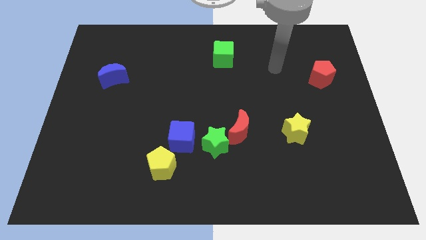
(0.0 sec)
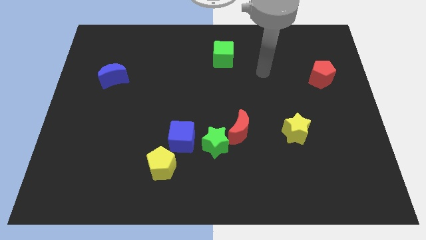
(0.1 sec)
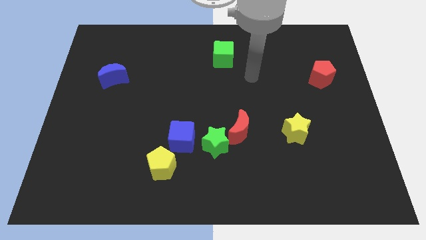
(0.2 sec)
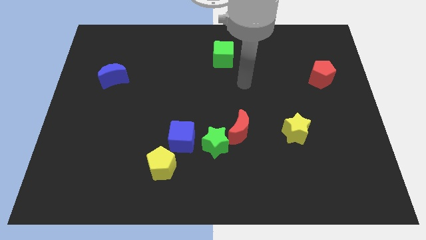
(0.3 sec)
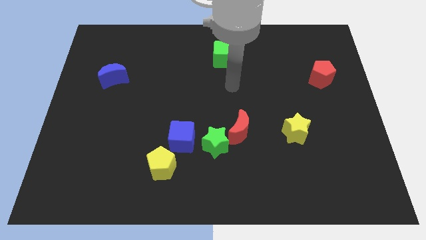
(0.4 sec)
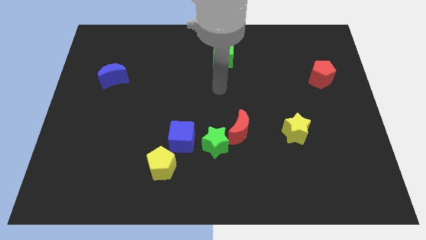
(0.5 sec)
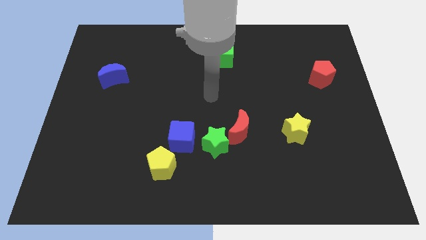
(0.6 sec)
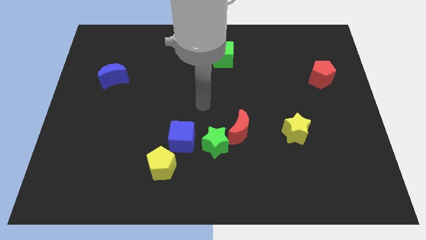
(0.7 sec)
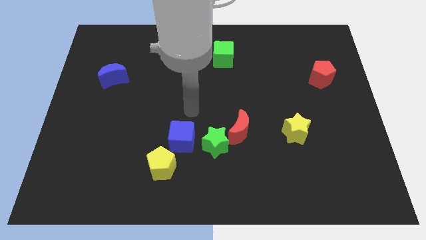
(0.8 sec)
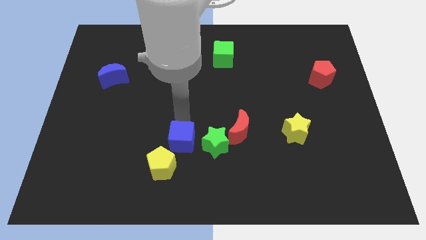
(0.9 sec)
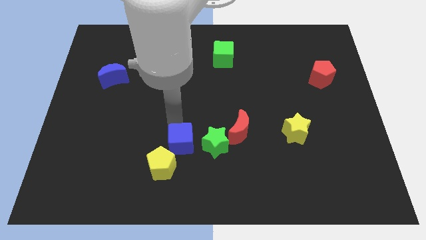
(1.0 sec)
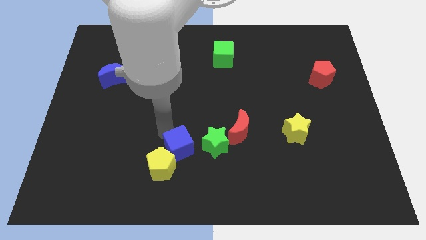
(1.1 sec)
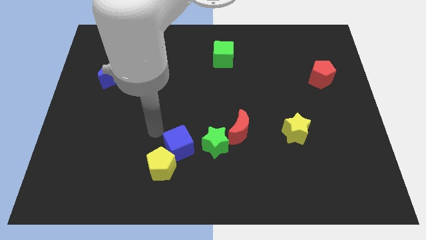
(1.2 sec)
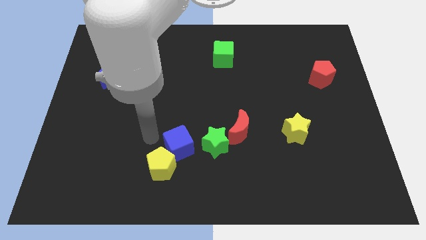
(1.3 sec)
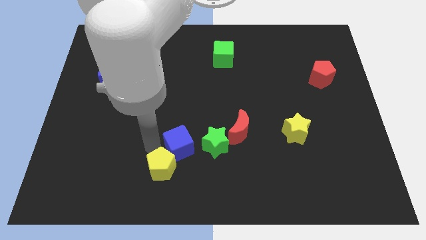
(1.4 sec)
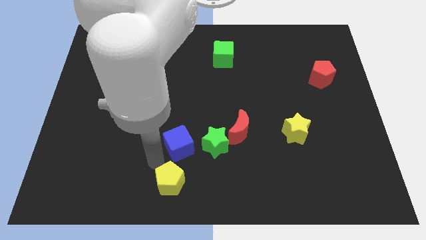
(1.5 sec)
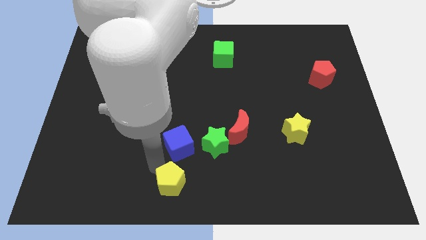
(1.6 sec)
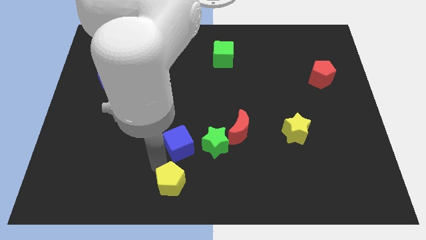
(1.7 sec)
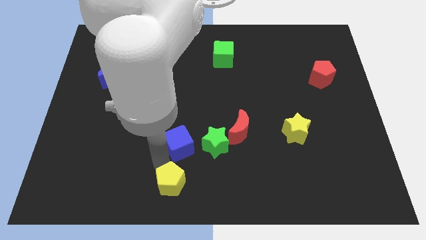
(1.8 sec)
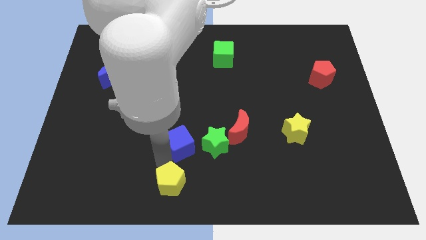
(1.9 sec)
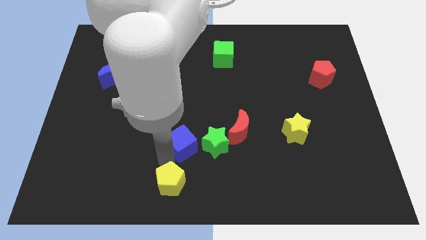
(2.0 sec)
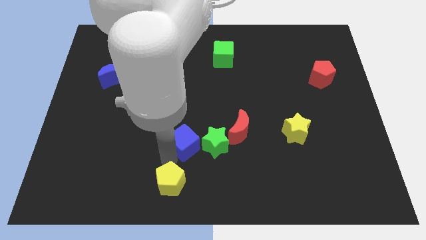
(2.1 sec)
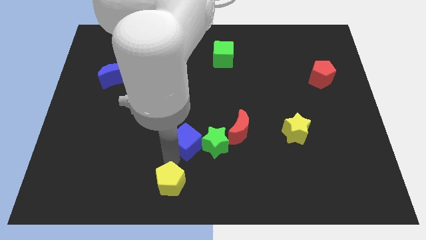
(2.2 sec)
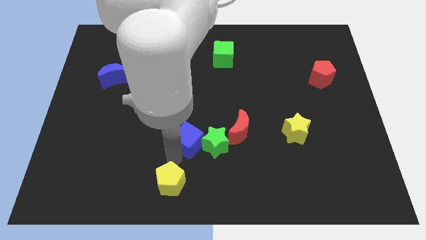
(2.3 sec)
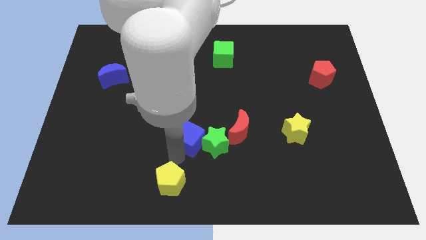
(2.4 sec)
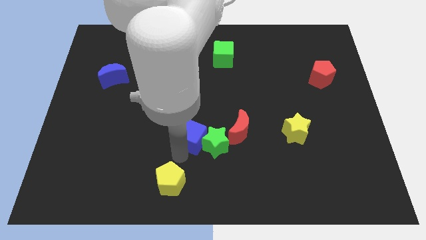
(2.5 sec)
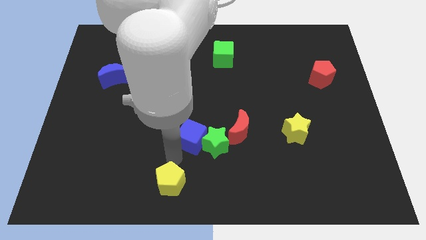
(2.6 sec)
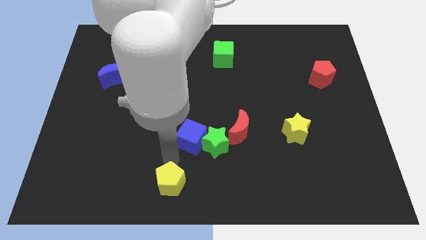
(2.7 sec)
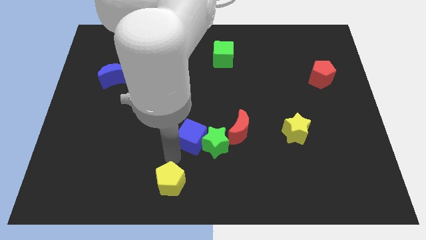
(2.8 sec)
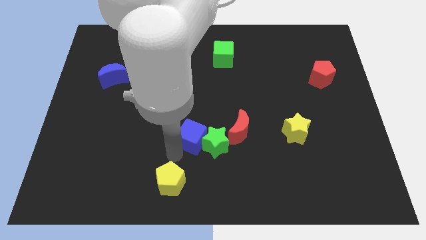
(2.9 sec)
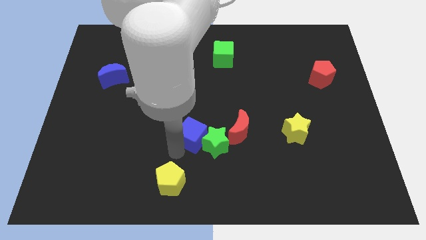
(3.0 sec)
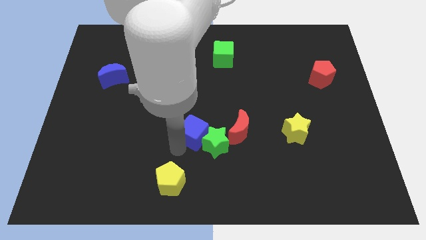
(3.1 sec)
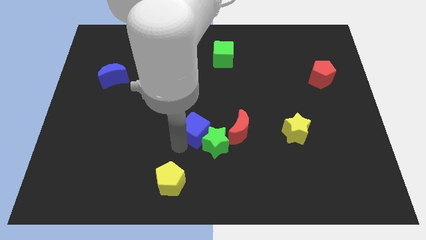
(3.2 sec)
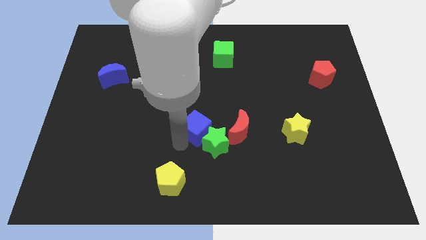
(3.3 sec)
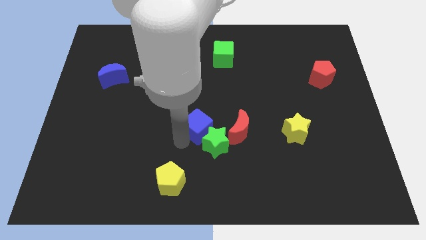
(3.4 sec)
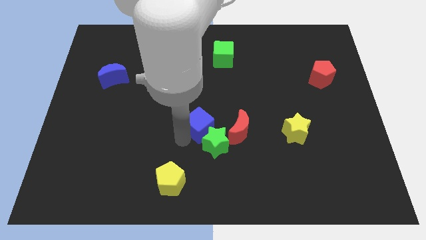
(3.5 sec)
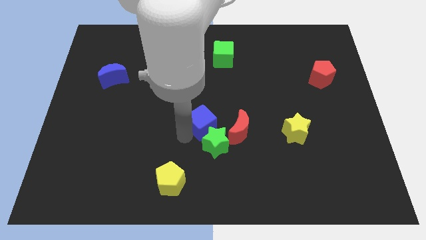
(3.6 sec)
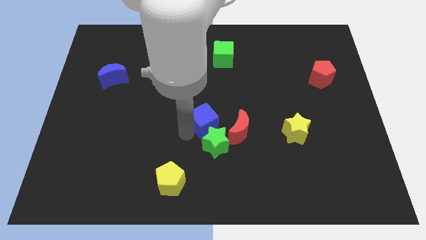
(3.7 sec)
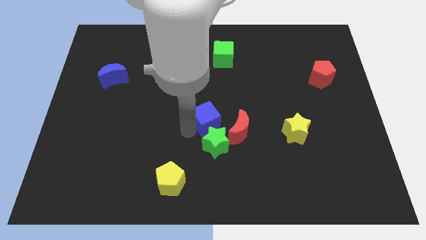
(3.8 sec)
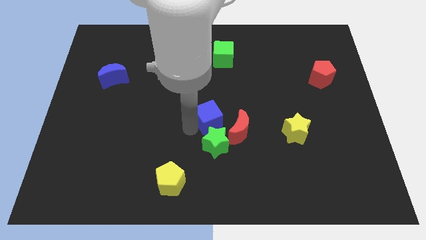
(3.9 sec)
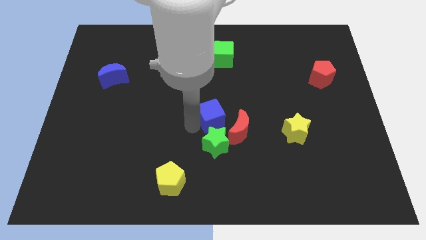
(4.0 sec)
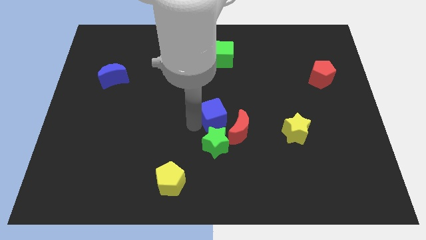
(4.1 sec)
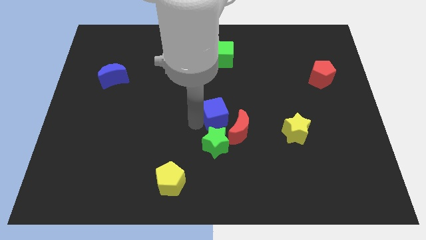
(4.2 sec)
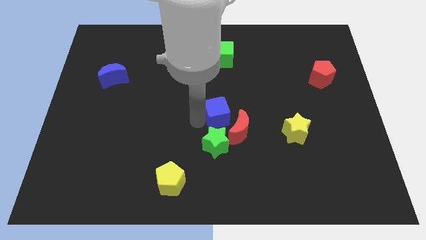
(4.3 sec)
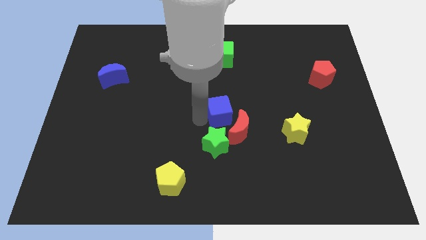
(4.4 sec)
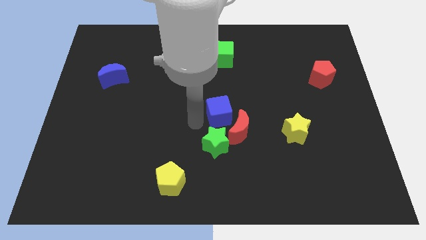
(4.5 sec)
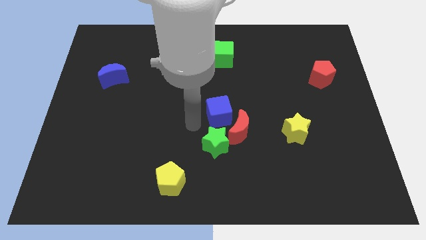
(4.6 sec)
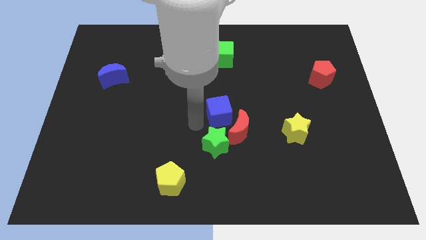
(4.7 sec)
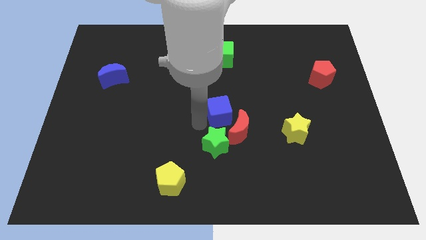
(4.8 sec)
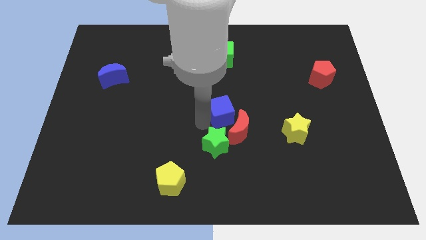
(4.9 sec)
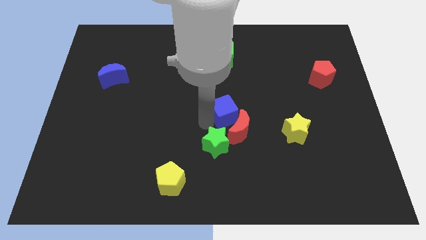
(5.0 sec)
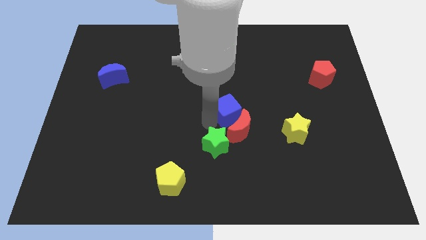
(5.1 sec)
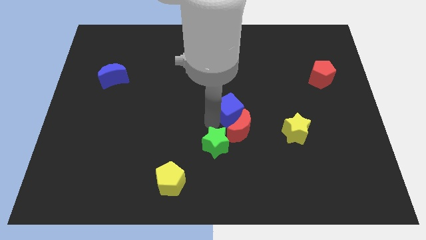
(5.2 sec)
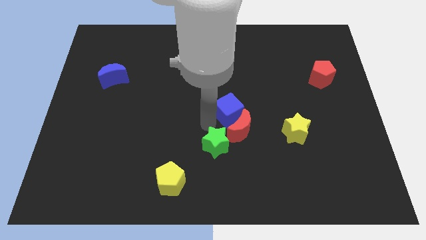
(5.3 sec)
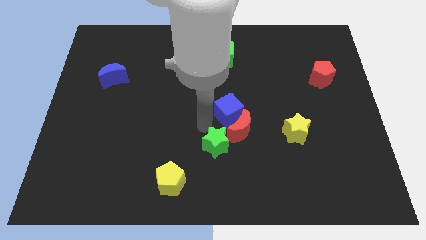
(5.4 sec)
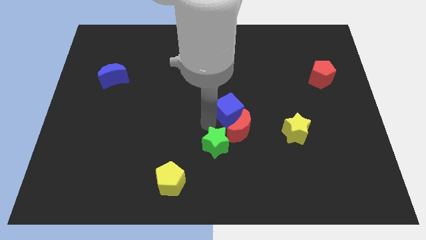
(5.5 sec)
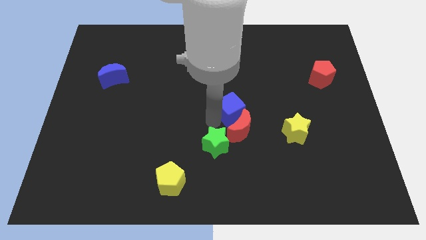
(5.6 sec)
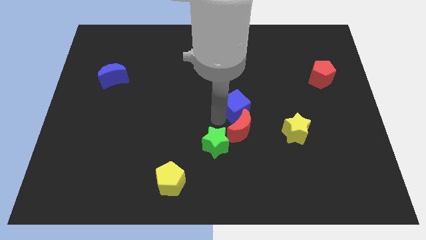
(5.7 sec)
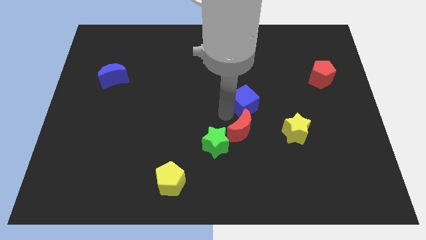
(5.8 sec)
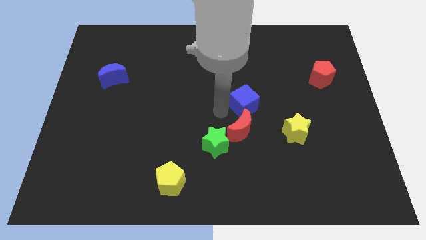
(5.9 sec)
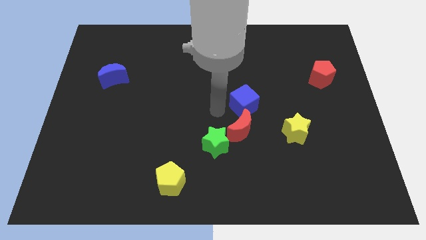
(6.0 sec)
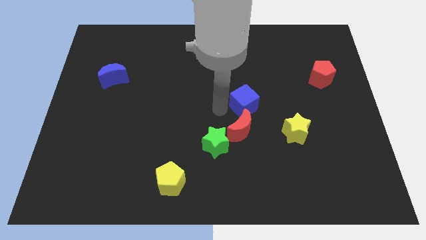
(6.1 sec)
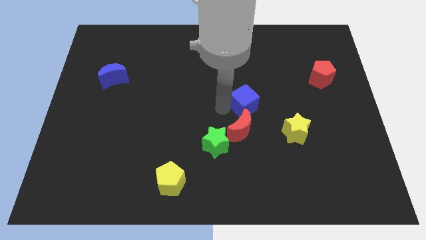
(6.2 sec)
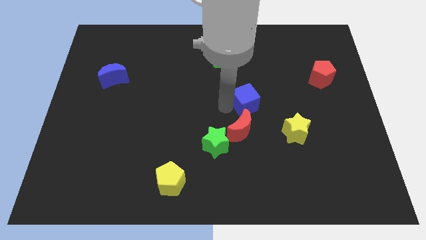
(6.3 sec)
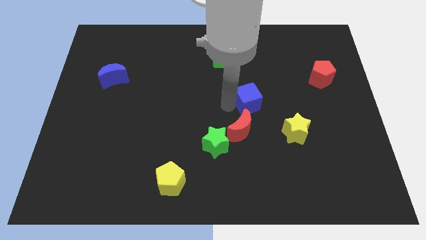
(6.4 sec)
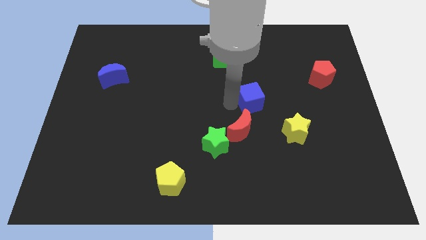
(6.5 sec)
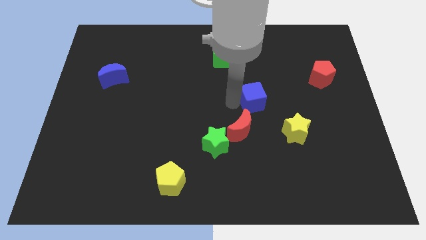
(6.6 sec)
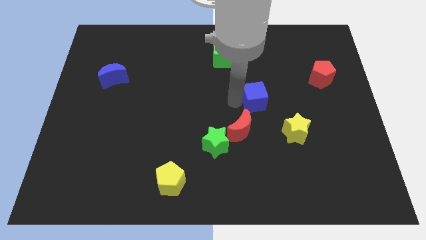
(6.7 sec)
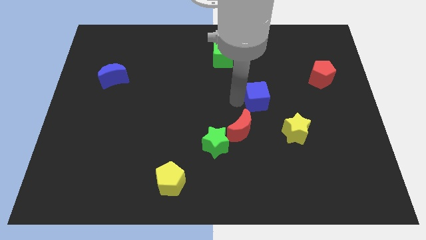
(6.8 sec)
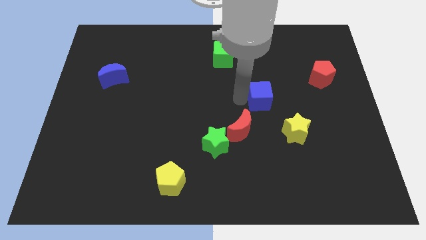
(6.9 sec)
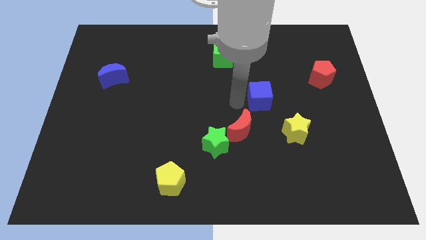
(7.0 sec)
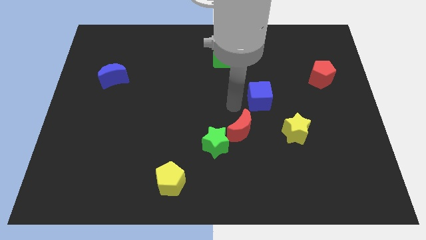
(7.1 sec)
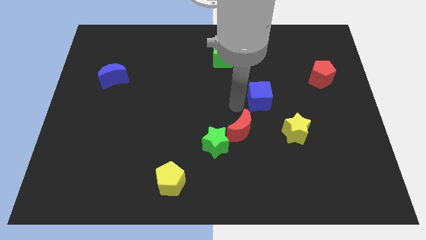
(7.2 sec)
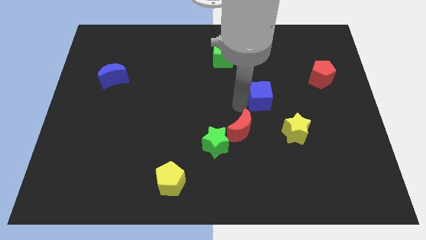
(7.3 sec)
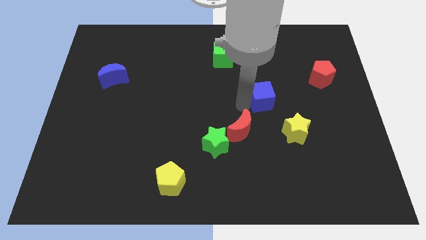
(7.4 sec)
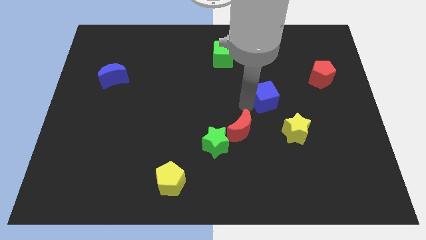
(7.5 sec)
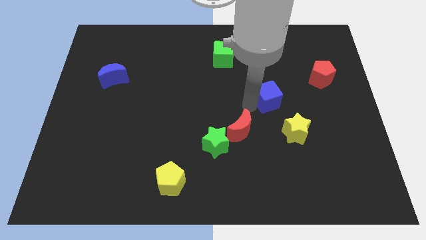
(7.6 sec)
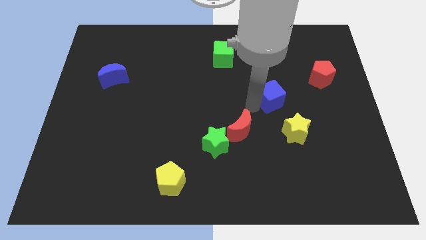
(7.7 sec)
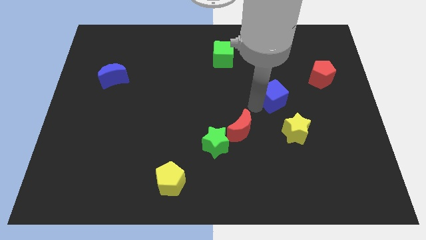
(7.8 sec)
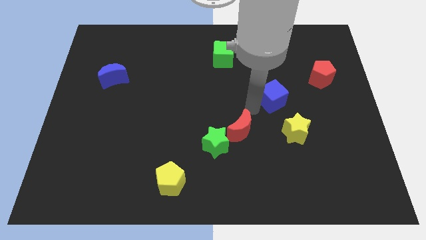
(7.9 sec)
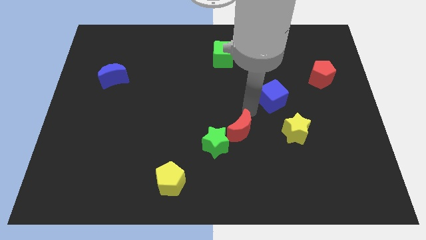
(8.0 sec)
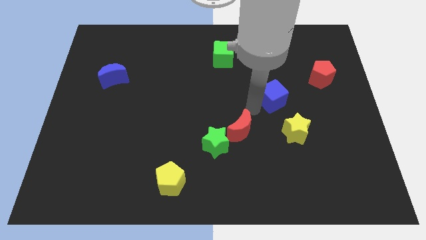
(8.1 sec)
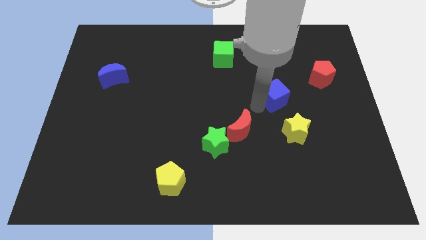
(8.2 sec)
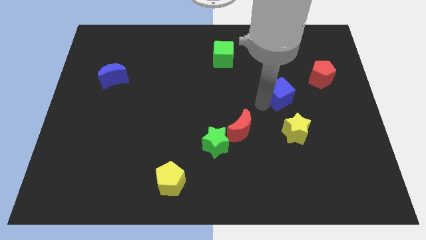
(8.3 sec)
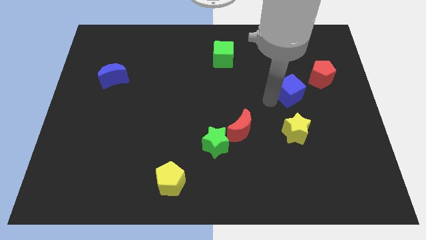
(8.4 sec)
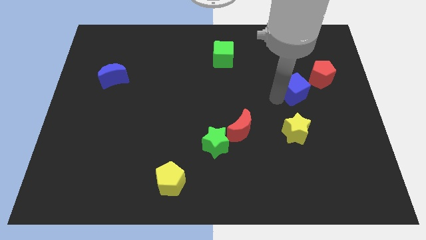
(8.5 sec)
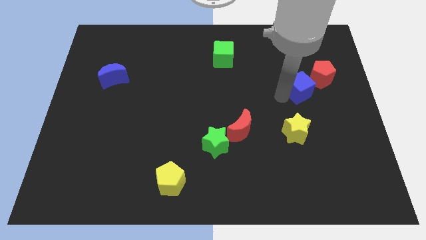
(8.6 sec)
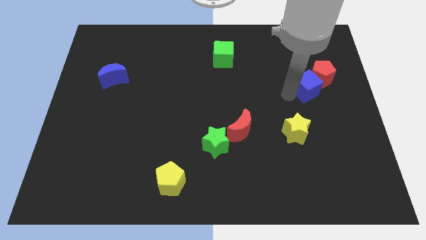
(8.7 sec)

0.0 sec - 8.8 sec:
put the blue cube close to the red pentagon
